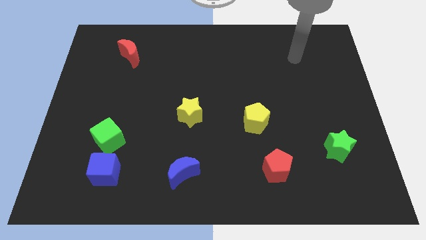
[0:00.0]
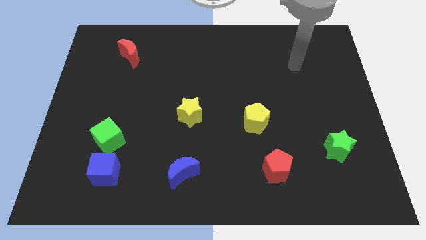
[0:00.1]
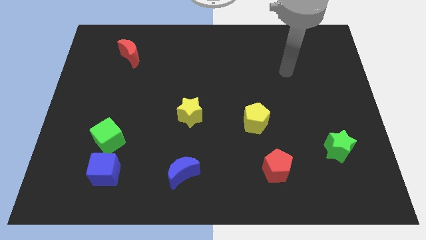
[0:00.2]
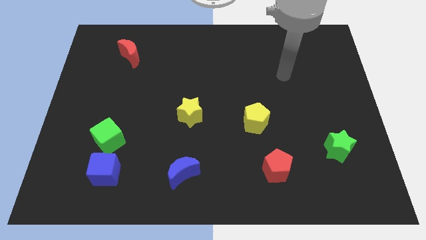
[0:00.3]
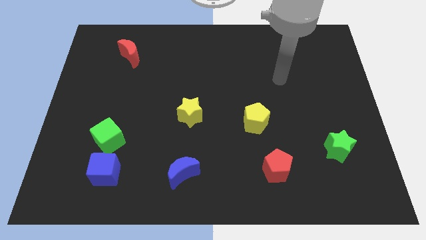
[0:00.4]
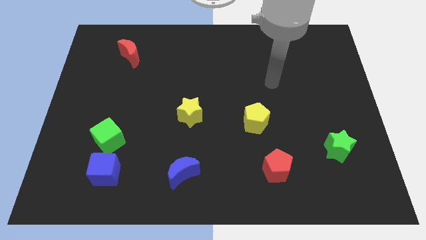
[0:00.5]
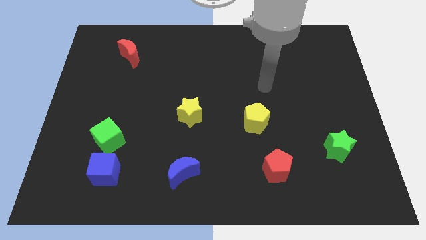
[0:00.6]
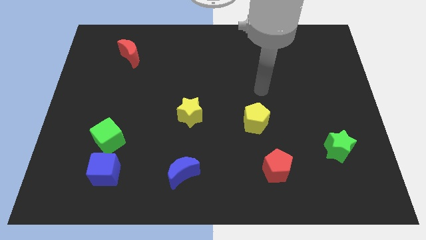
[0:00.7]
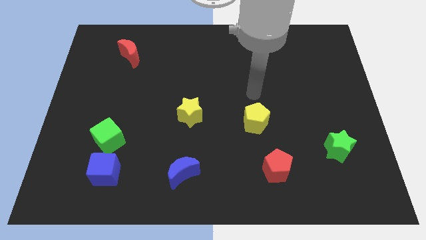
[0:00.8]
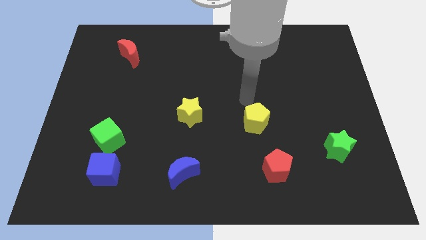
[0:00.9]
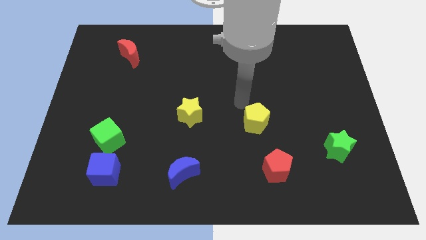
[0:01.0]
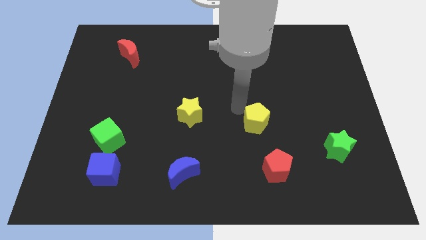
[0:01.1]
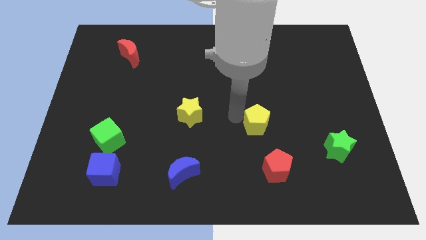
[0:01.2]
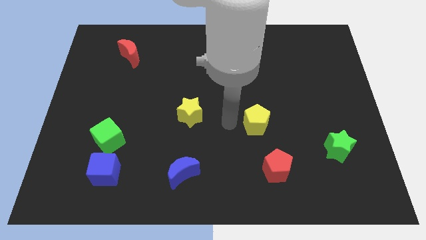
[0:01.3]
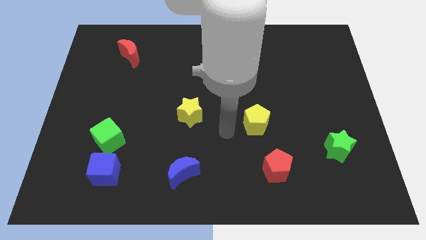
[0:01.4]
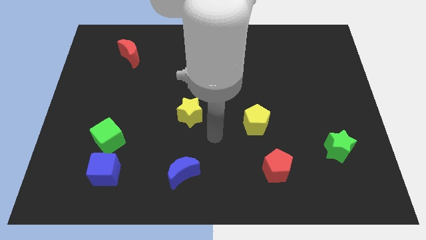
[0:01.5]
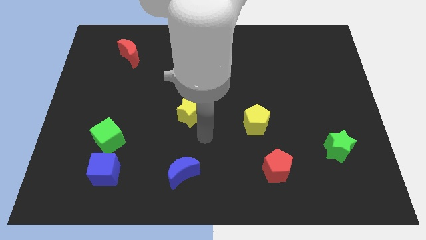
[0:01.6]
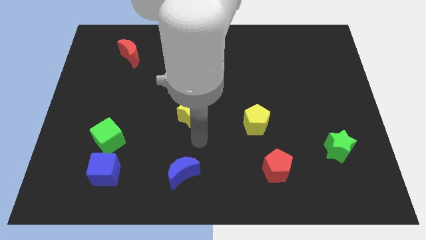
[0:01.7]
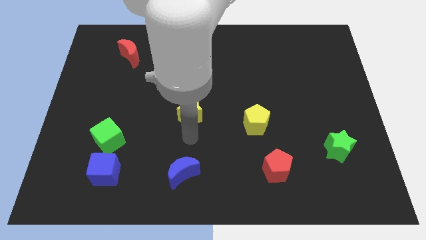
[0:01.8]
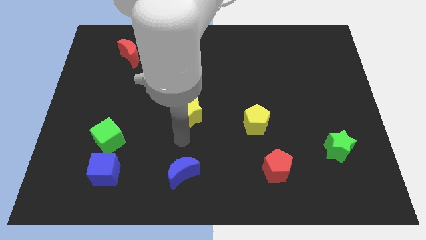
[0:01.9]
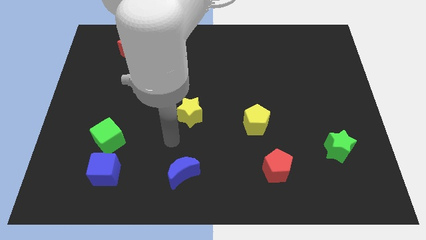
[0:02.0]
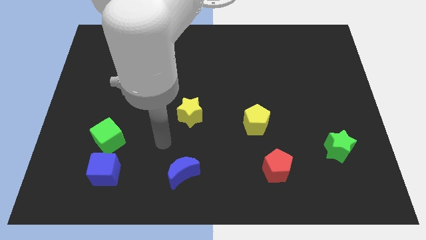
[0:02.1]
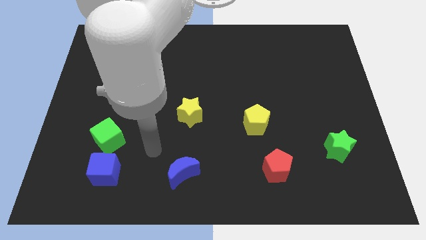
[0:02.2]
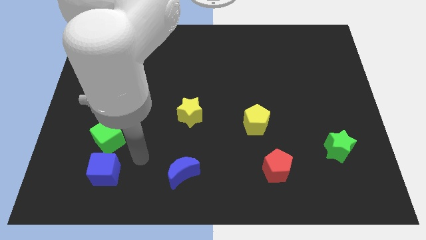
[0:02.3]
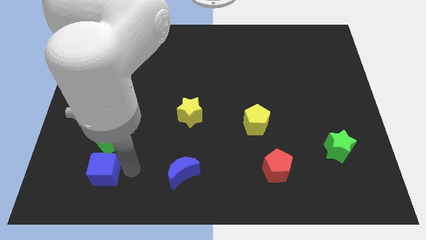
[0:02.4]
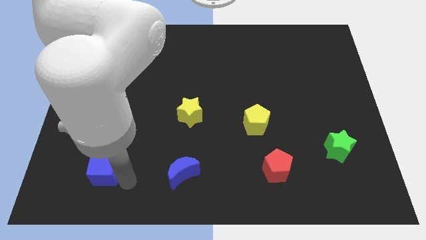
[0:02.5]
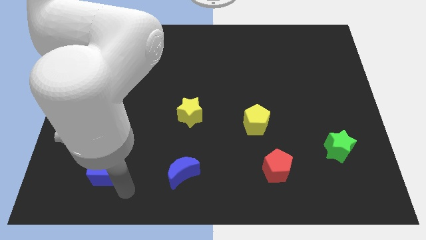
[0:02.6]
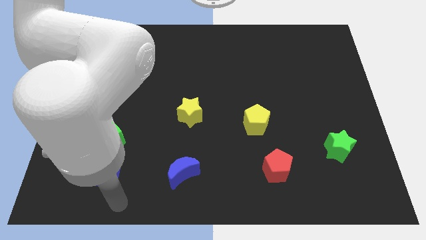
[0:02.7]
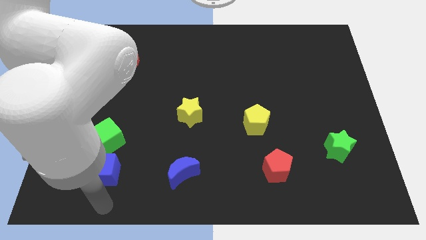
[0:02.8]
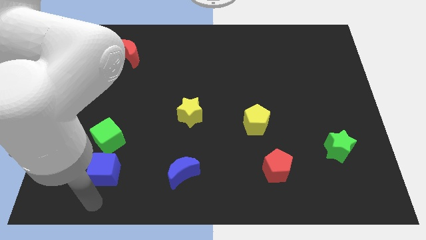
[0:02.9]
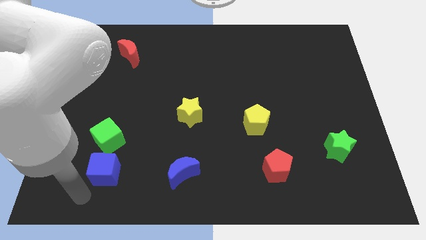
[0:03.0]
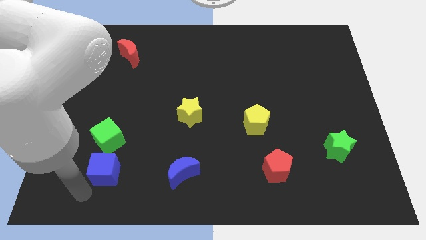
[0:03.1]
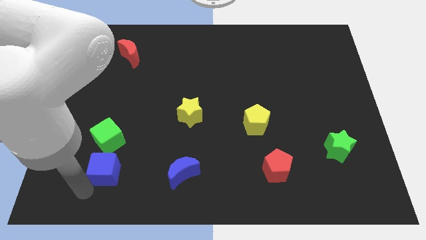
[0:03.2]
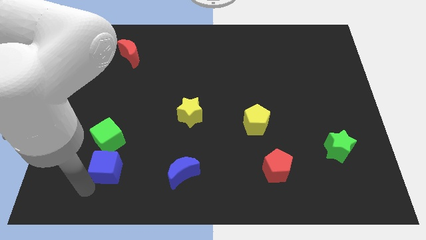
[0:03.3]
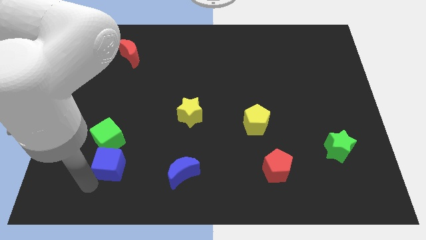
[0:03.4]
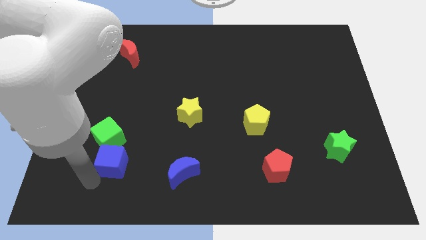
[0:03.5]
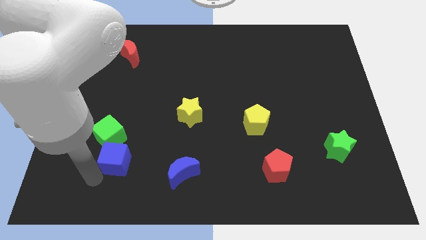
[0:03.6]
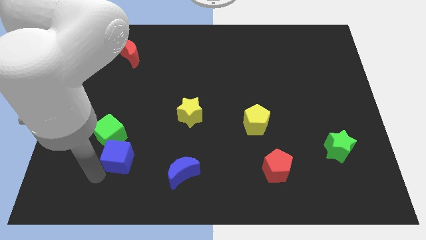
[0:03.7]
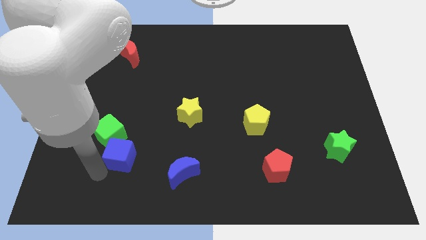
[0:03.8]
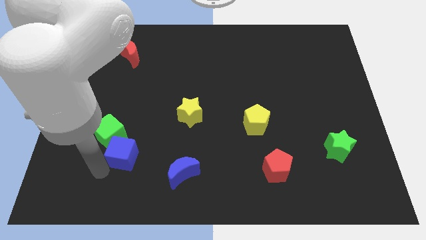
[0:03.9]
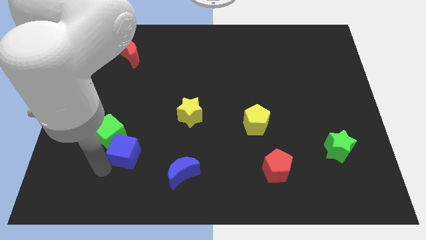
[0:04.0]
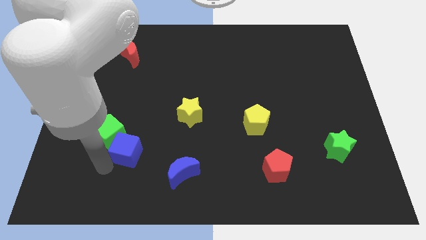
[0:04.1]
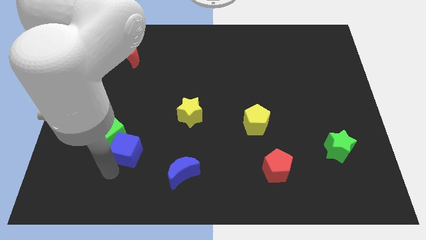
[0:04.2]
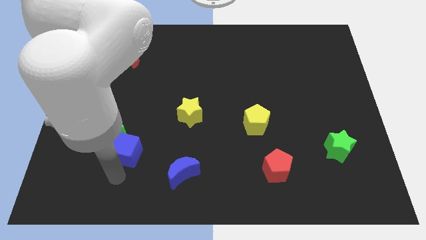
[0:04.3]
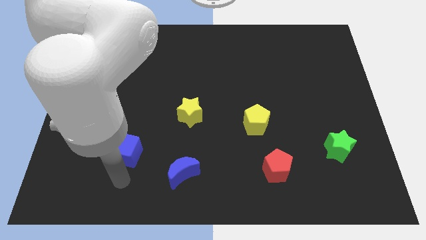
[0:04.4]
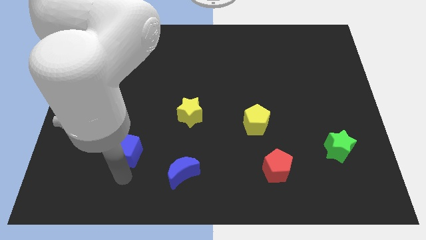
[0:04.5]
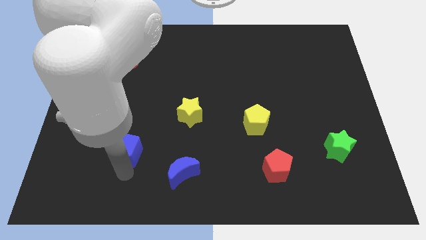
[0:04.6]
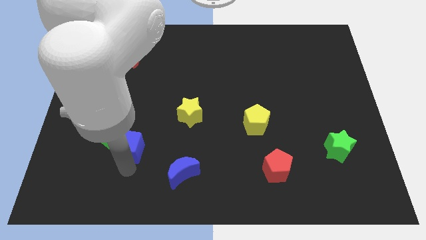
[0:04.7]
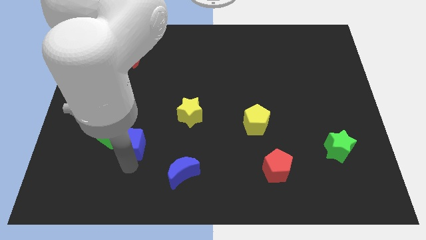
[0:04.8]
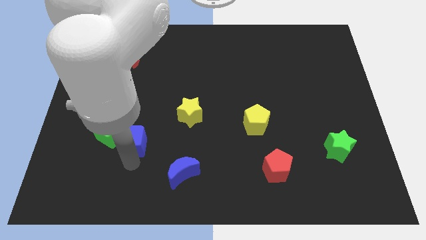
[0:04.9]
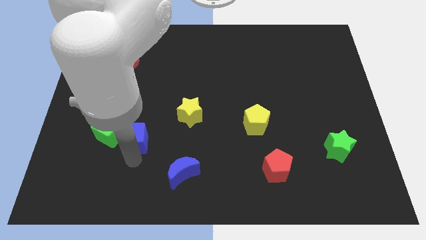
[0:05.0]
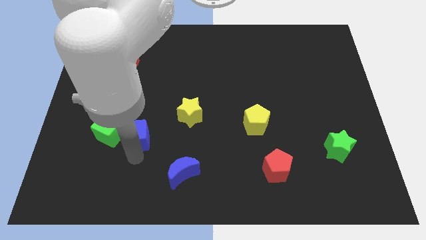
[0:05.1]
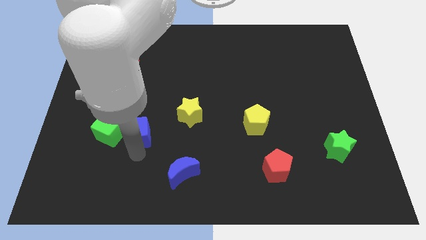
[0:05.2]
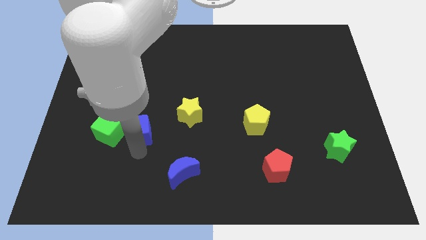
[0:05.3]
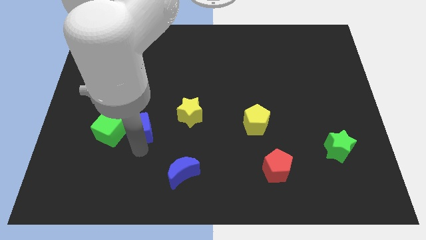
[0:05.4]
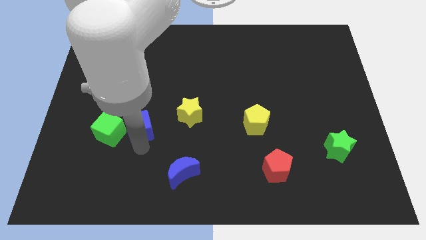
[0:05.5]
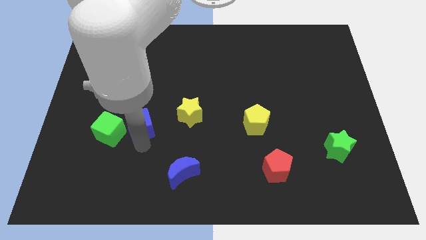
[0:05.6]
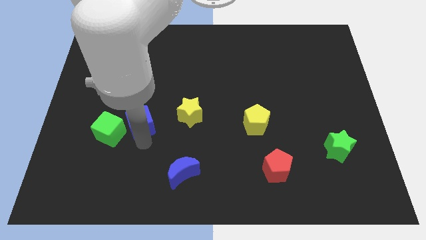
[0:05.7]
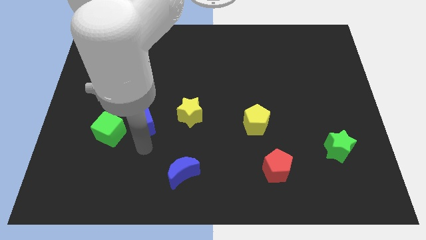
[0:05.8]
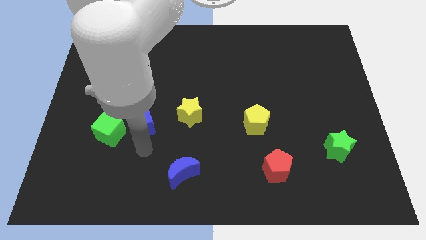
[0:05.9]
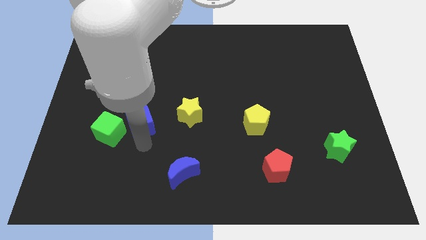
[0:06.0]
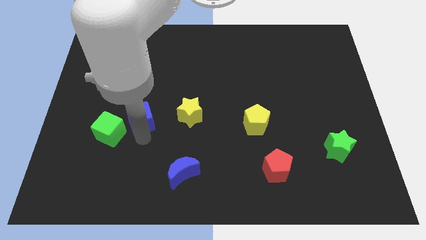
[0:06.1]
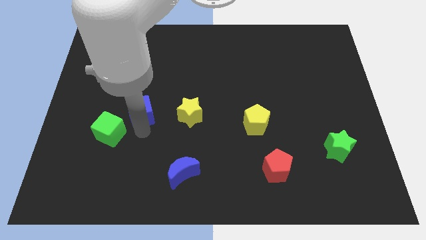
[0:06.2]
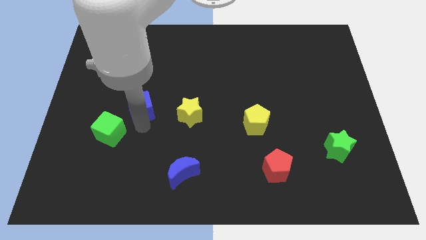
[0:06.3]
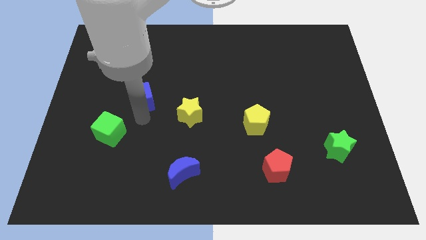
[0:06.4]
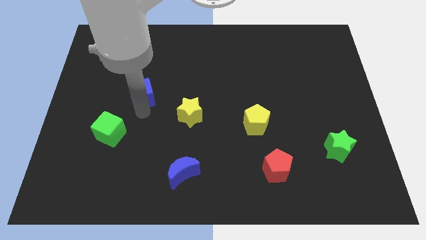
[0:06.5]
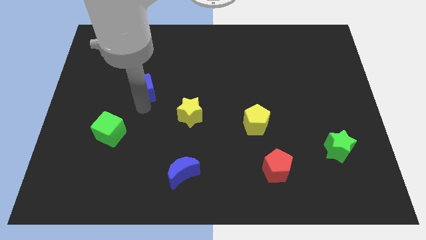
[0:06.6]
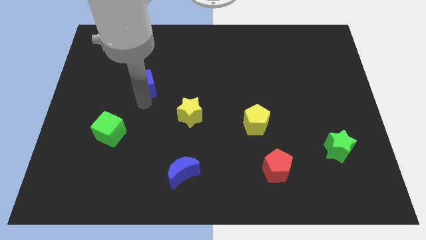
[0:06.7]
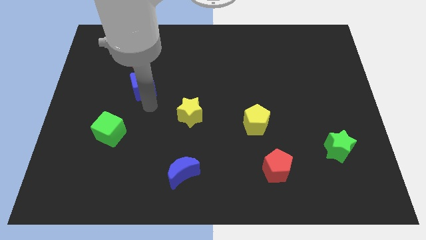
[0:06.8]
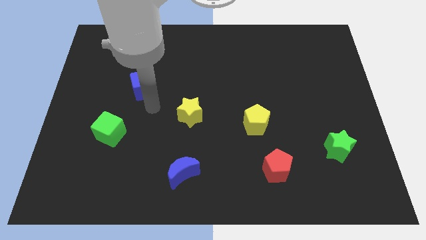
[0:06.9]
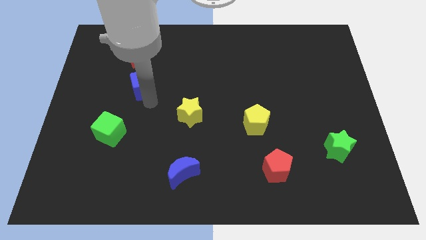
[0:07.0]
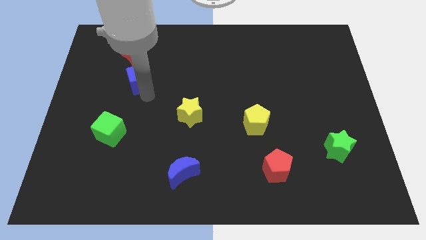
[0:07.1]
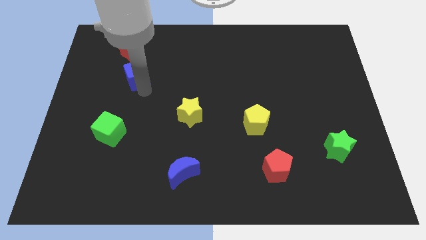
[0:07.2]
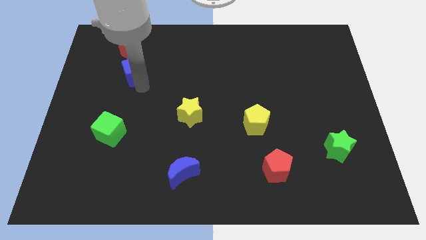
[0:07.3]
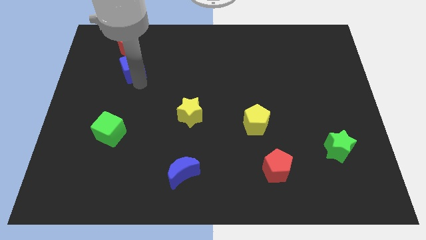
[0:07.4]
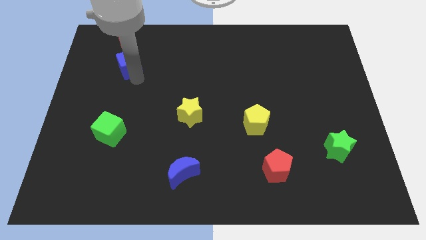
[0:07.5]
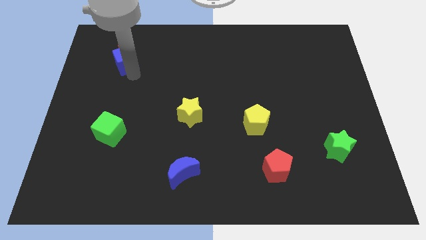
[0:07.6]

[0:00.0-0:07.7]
put the blue cube towards the red moon
